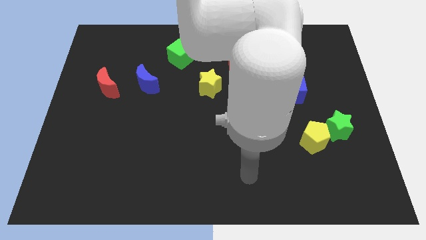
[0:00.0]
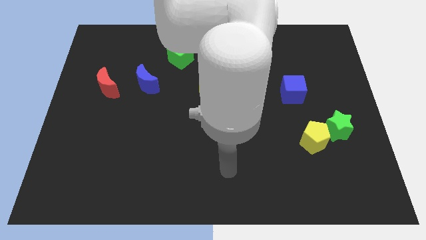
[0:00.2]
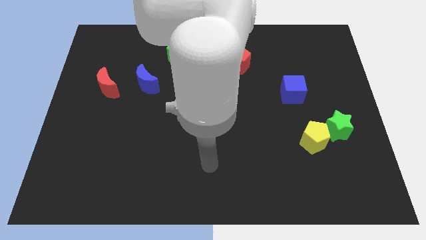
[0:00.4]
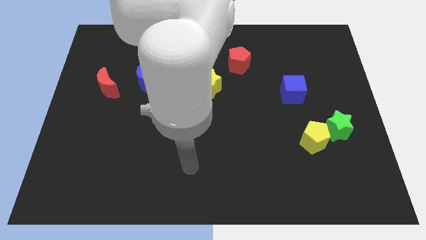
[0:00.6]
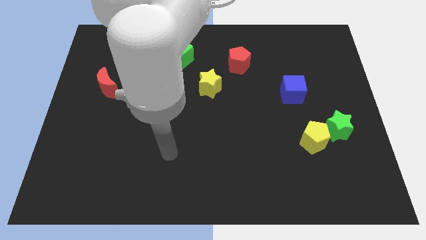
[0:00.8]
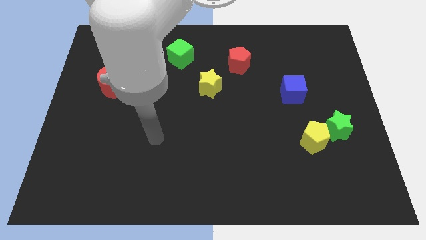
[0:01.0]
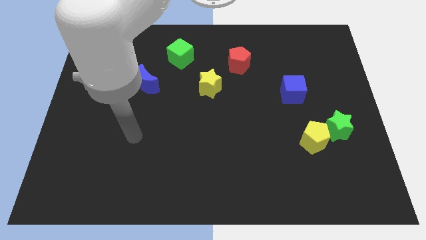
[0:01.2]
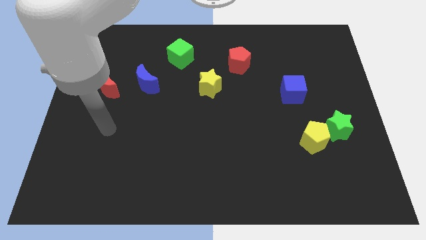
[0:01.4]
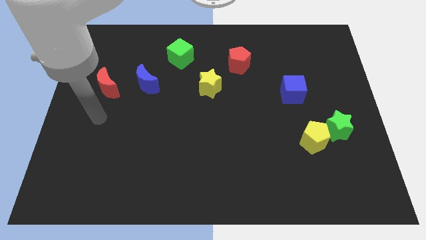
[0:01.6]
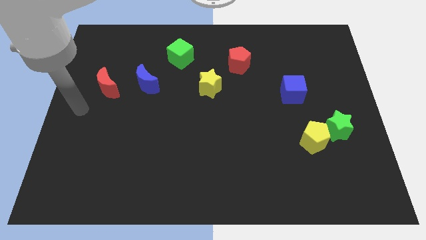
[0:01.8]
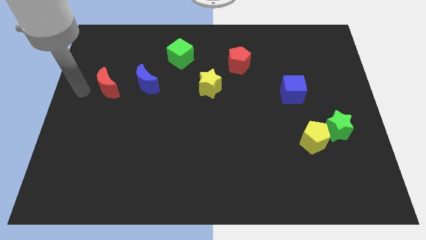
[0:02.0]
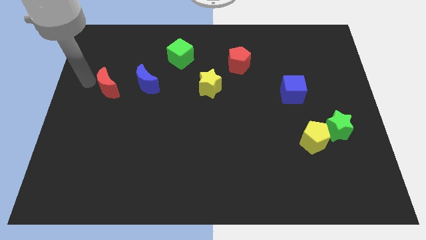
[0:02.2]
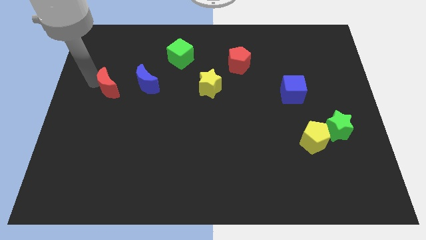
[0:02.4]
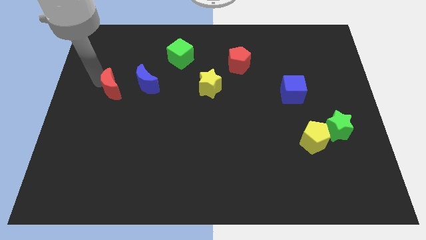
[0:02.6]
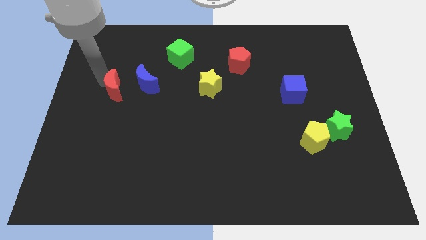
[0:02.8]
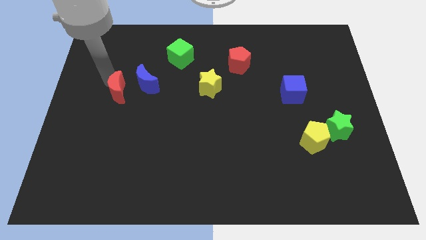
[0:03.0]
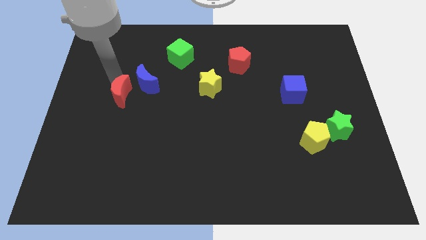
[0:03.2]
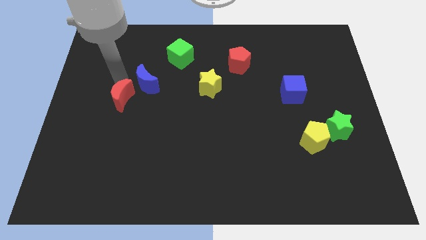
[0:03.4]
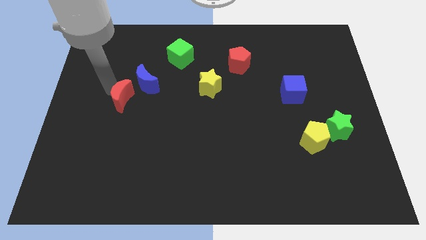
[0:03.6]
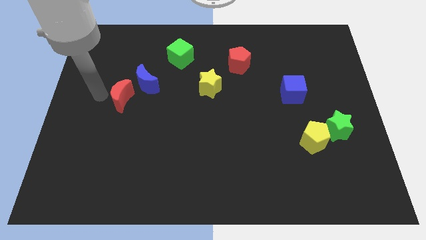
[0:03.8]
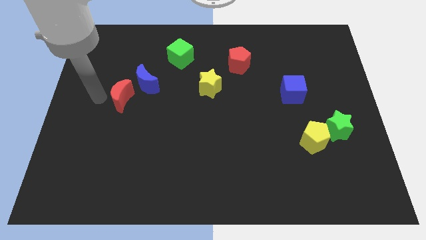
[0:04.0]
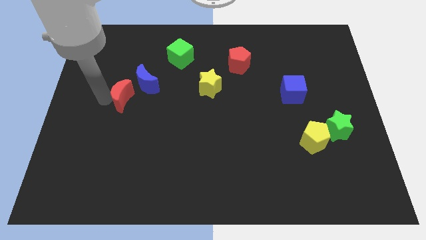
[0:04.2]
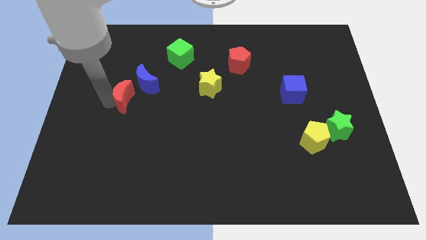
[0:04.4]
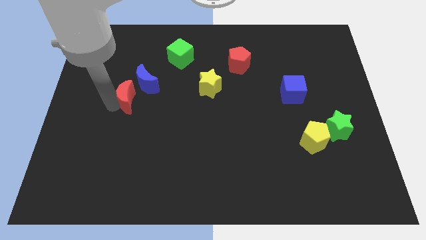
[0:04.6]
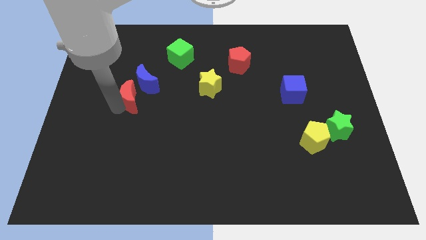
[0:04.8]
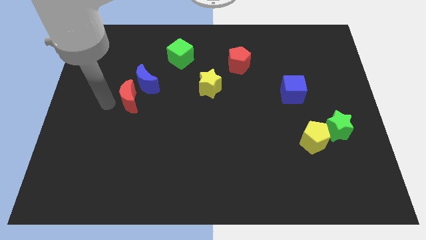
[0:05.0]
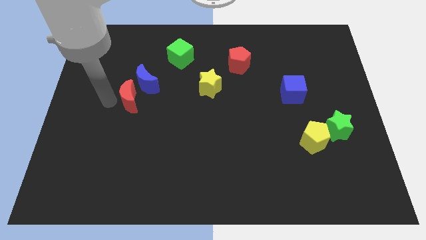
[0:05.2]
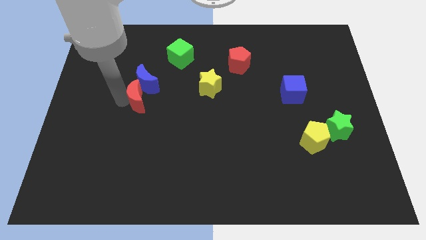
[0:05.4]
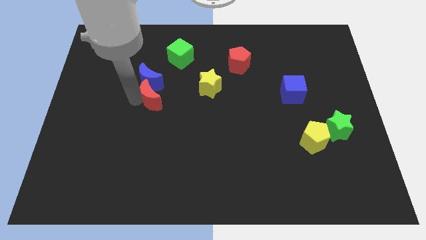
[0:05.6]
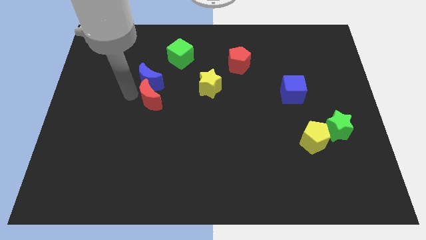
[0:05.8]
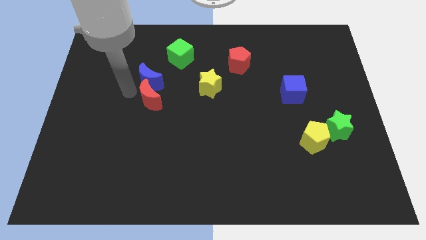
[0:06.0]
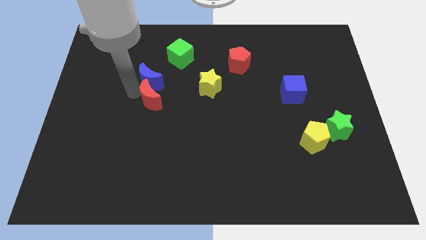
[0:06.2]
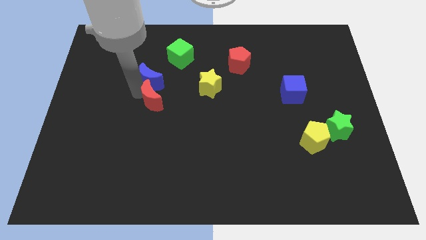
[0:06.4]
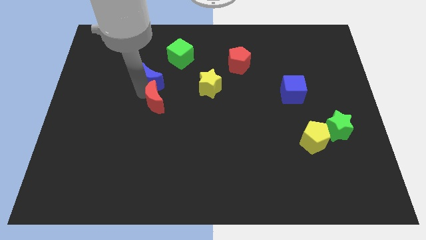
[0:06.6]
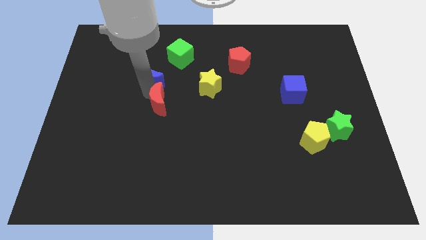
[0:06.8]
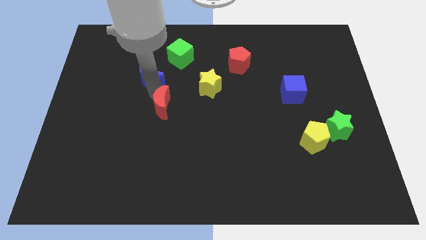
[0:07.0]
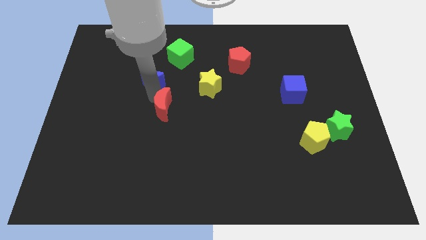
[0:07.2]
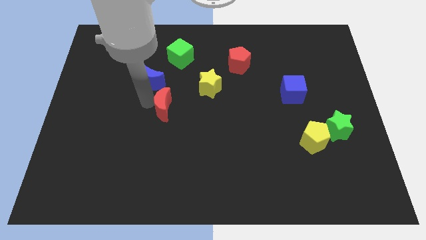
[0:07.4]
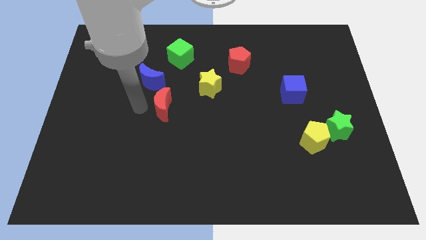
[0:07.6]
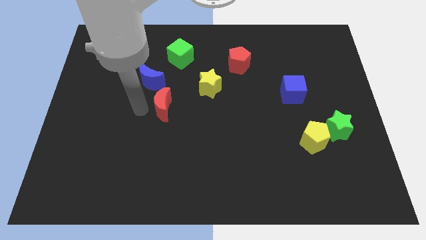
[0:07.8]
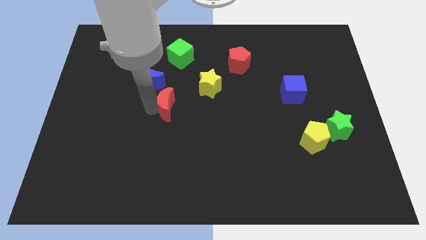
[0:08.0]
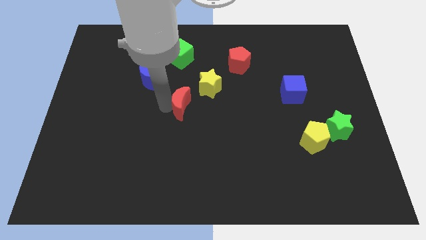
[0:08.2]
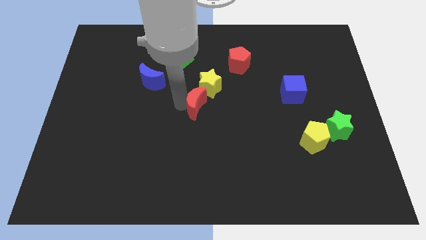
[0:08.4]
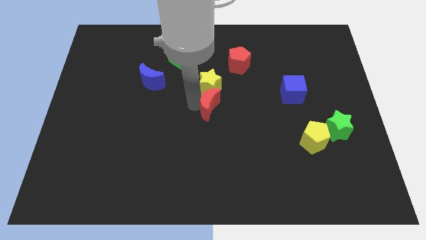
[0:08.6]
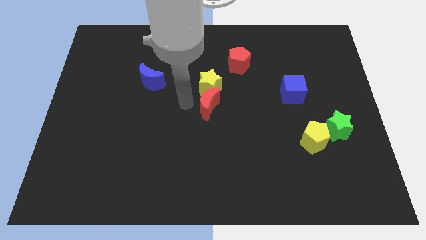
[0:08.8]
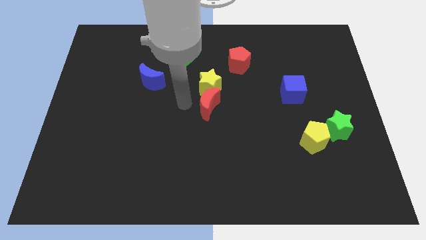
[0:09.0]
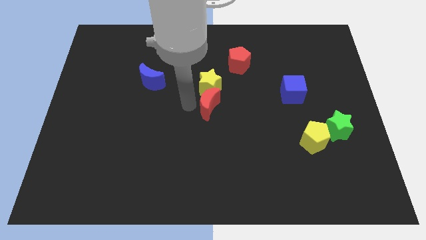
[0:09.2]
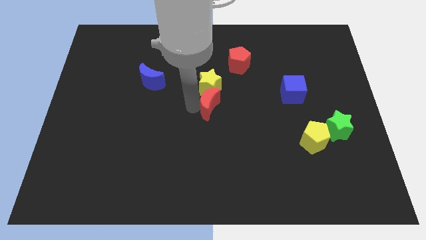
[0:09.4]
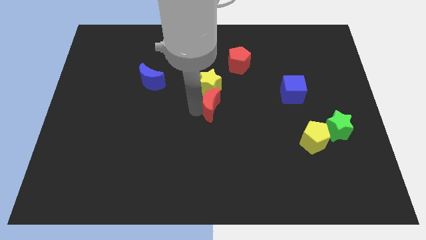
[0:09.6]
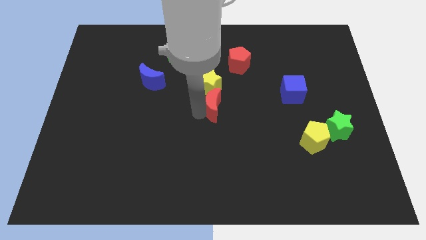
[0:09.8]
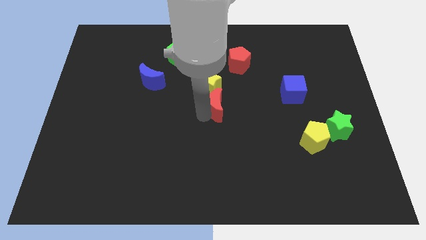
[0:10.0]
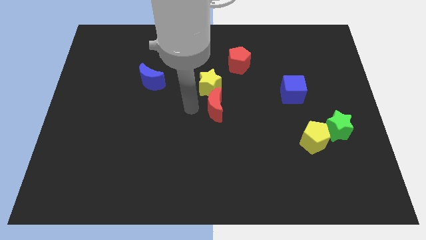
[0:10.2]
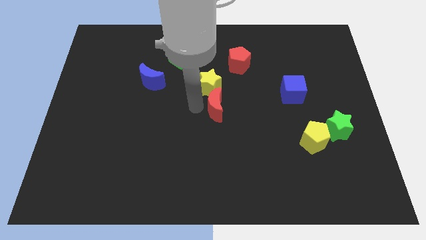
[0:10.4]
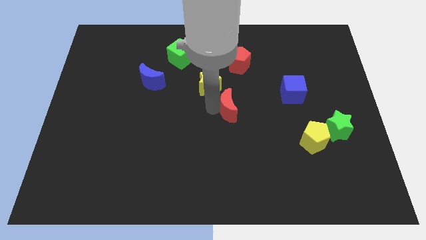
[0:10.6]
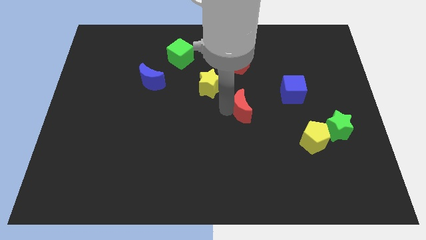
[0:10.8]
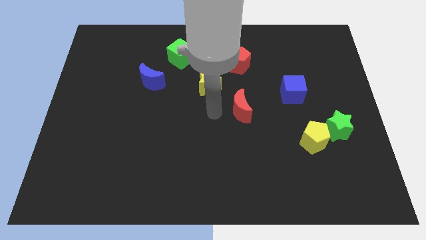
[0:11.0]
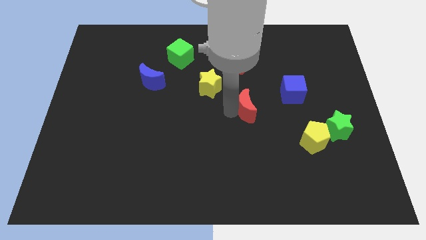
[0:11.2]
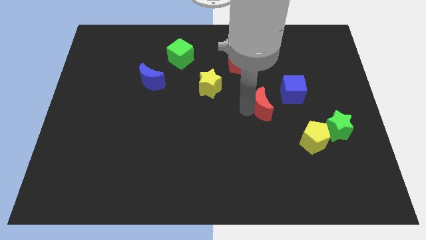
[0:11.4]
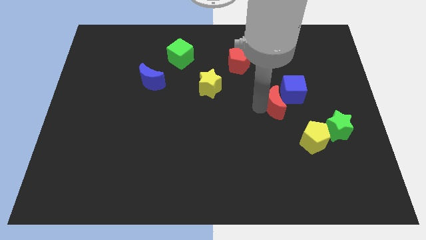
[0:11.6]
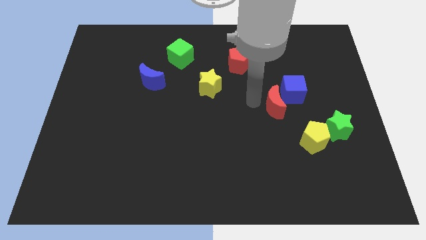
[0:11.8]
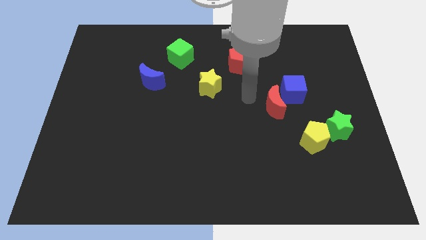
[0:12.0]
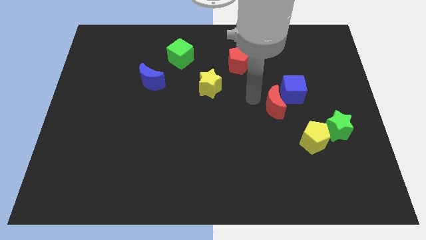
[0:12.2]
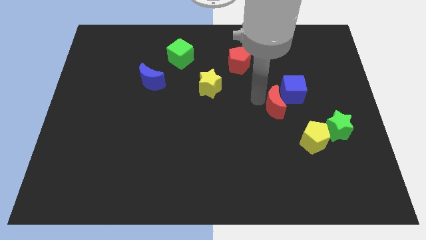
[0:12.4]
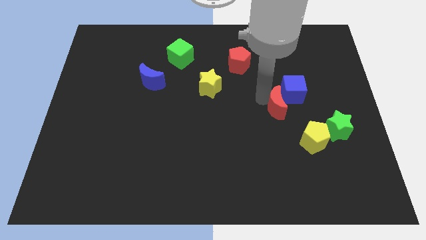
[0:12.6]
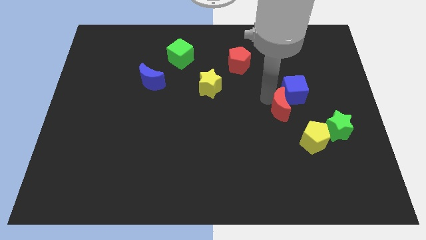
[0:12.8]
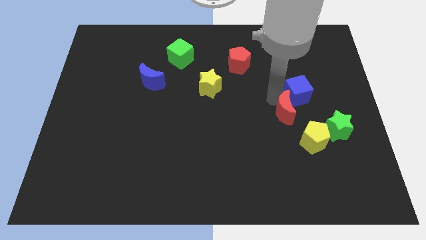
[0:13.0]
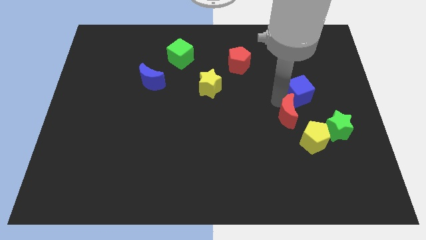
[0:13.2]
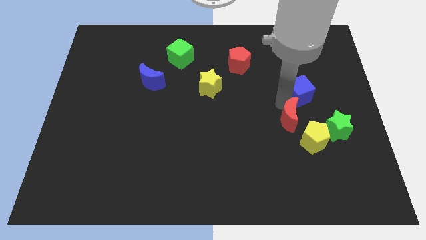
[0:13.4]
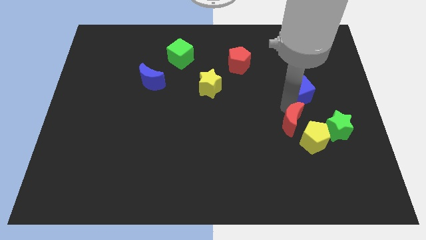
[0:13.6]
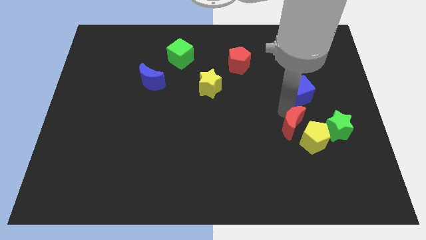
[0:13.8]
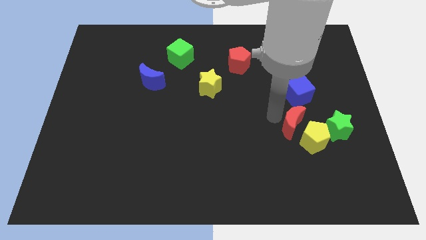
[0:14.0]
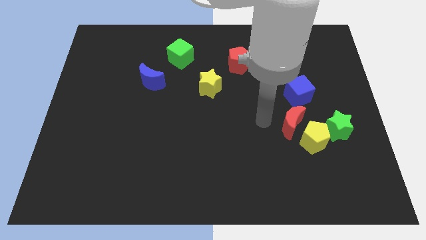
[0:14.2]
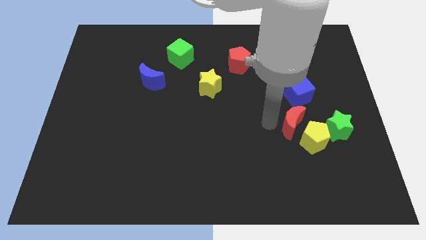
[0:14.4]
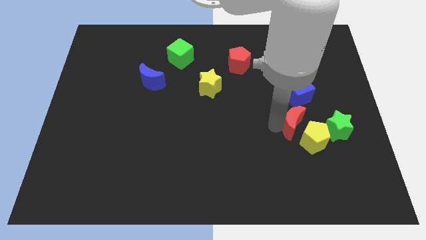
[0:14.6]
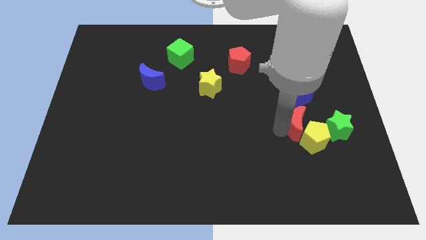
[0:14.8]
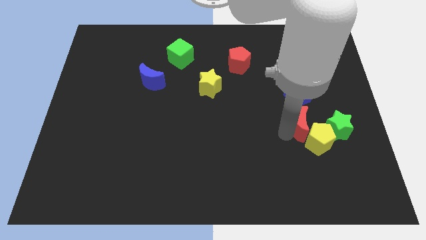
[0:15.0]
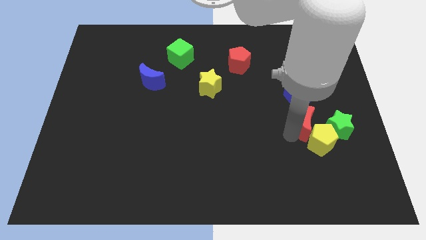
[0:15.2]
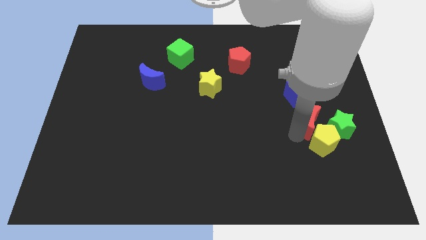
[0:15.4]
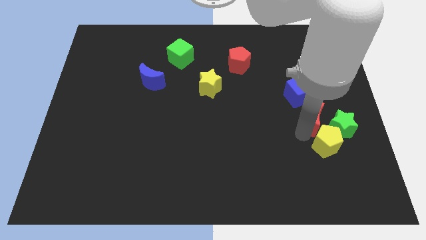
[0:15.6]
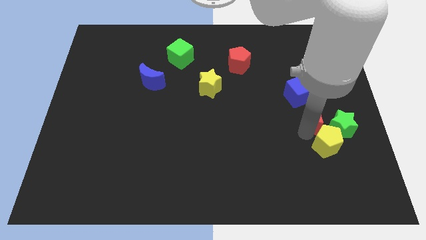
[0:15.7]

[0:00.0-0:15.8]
push the red moon close to the green star
